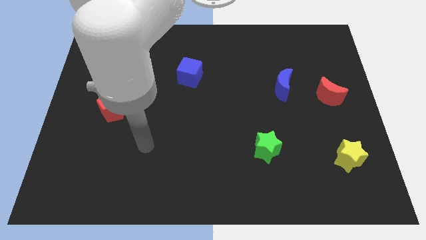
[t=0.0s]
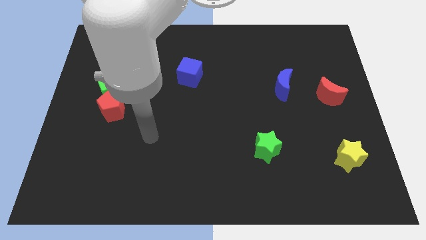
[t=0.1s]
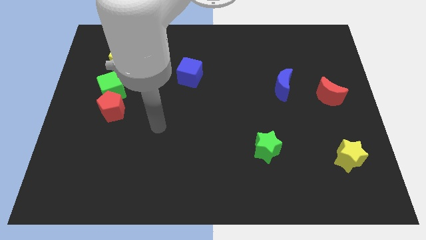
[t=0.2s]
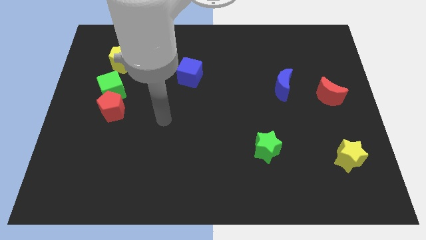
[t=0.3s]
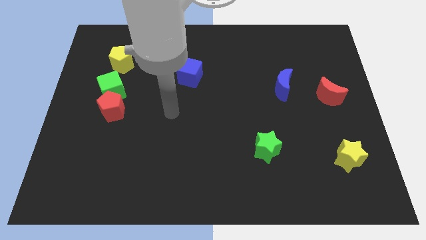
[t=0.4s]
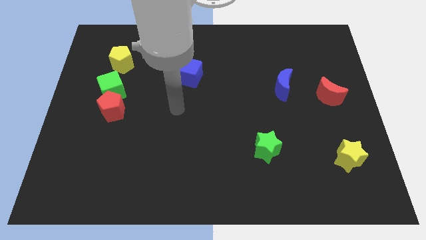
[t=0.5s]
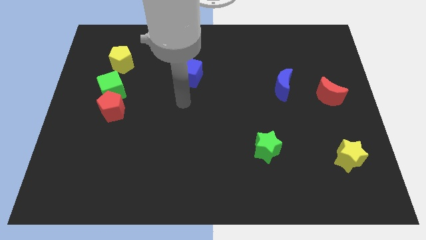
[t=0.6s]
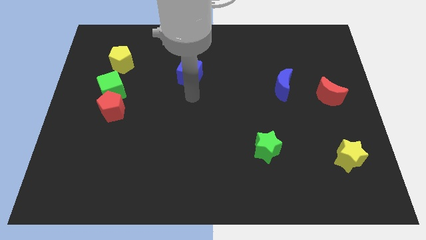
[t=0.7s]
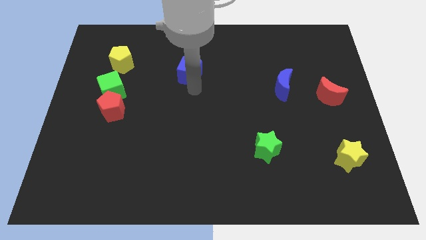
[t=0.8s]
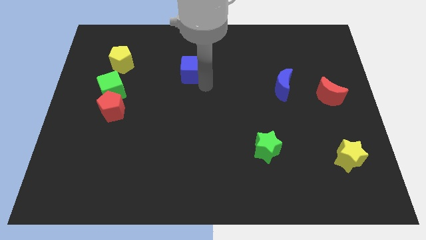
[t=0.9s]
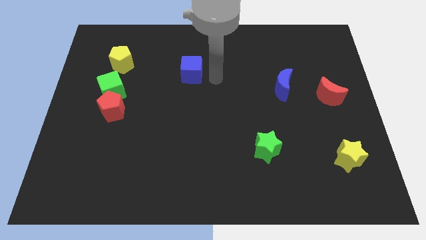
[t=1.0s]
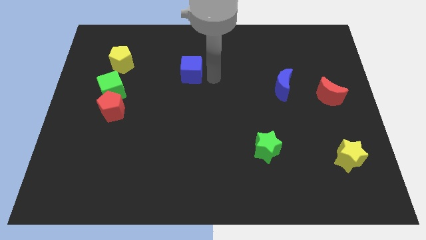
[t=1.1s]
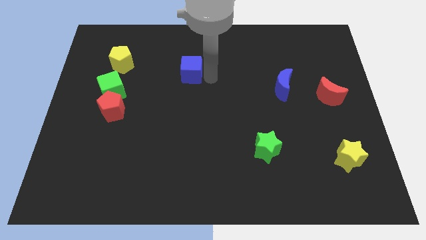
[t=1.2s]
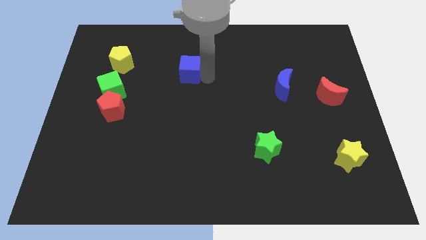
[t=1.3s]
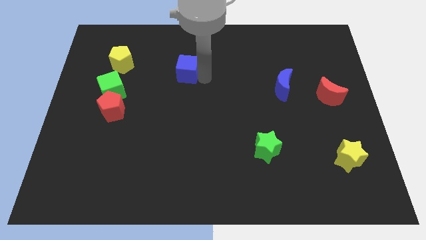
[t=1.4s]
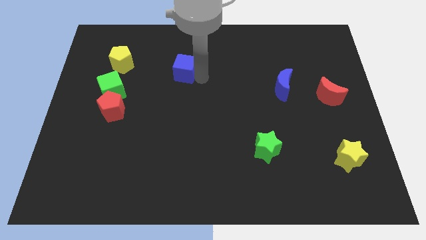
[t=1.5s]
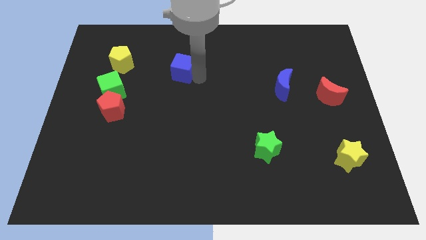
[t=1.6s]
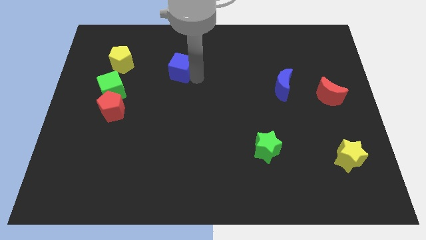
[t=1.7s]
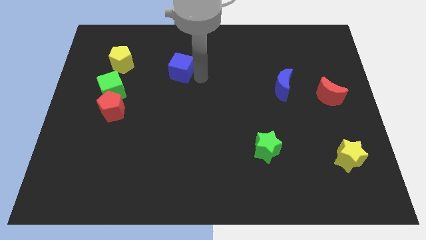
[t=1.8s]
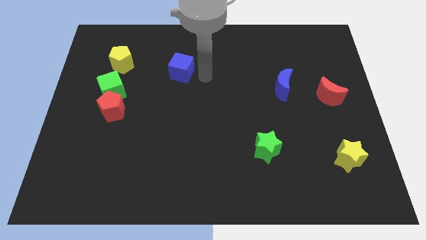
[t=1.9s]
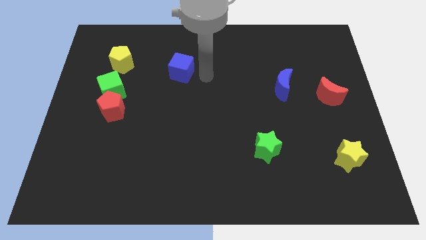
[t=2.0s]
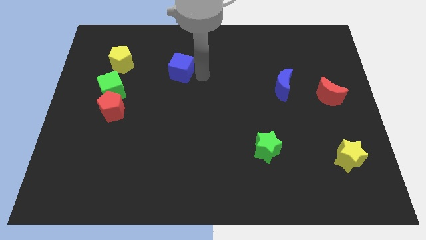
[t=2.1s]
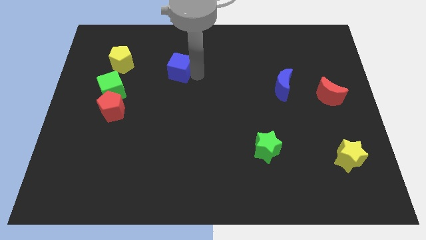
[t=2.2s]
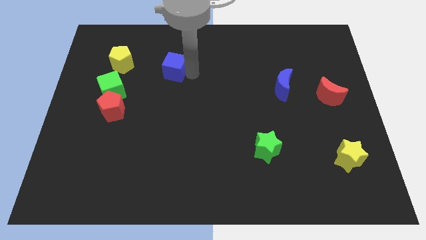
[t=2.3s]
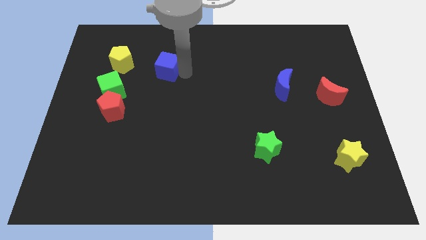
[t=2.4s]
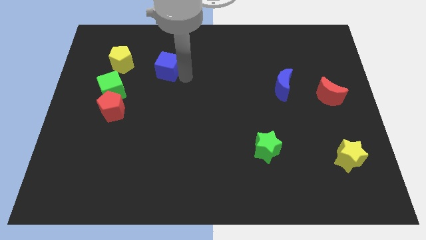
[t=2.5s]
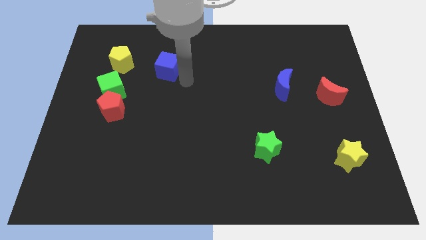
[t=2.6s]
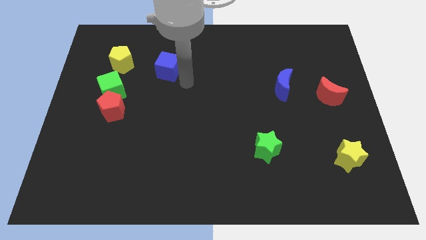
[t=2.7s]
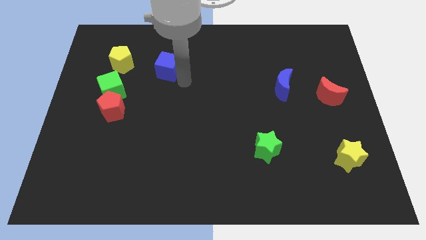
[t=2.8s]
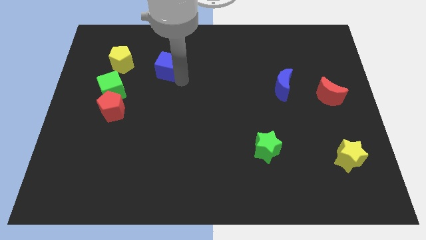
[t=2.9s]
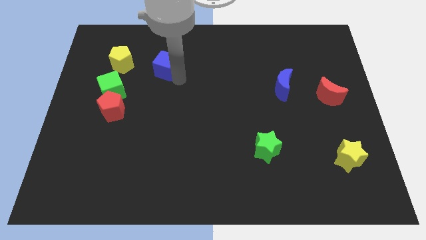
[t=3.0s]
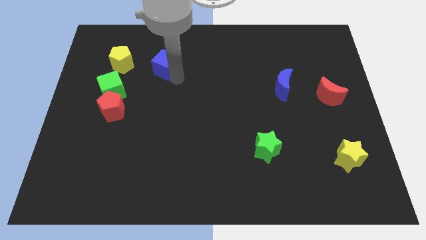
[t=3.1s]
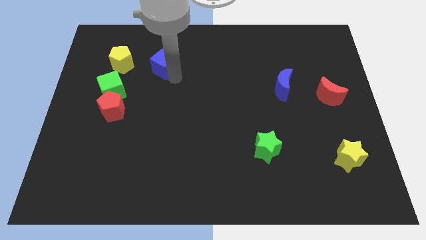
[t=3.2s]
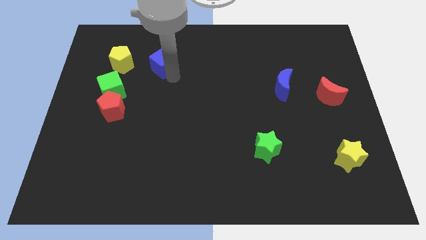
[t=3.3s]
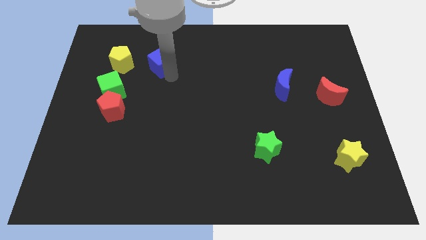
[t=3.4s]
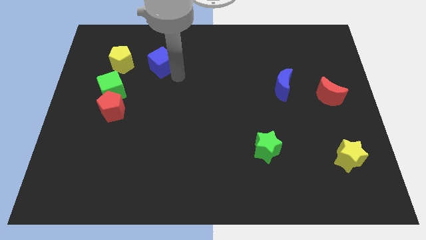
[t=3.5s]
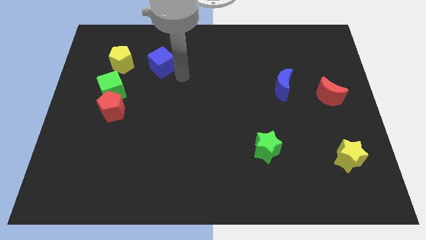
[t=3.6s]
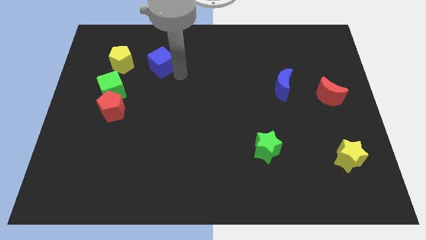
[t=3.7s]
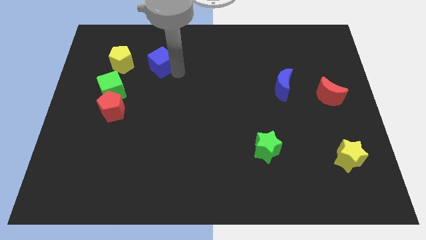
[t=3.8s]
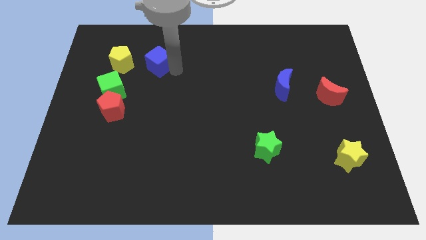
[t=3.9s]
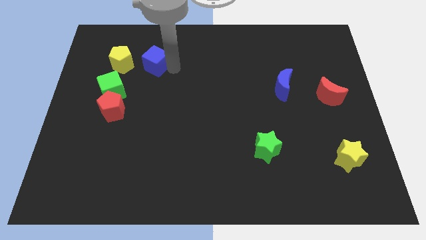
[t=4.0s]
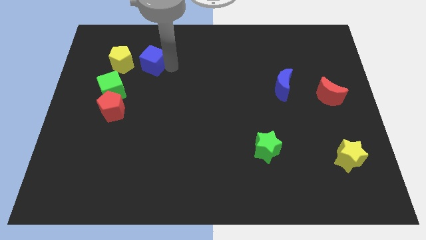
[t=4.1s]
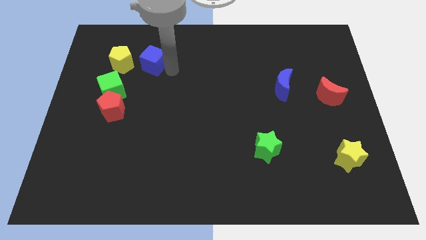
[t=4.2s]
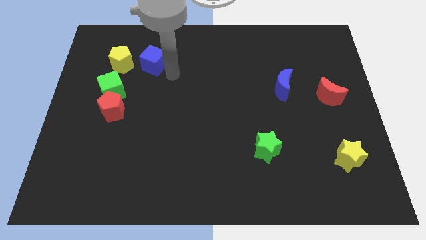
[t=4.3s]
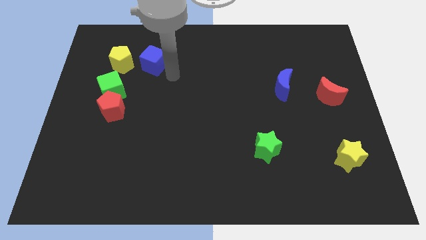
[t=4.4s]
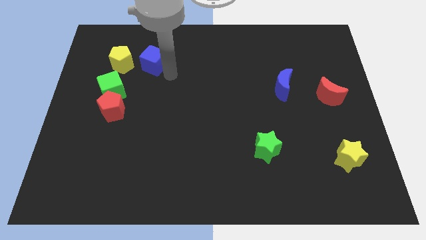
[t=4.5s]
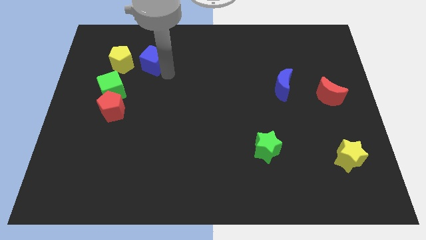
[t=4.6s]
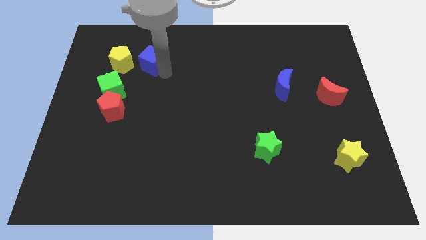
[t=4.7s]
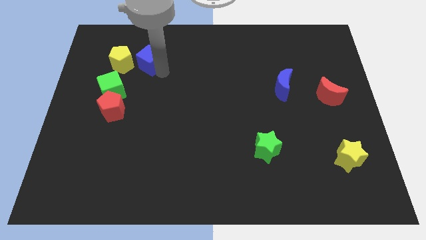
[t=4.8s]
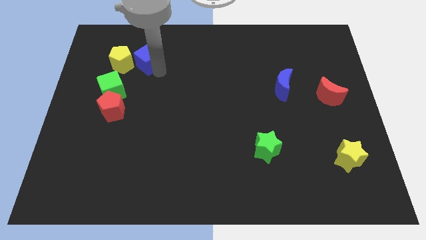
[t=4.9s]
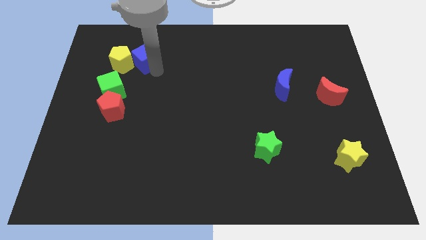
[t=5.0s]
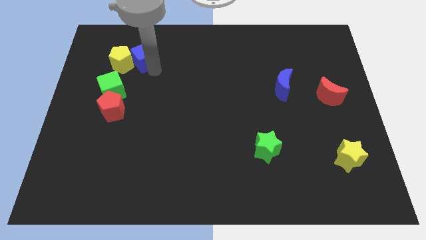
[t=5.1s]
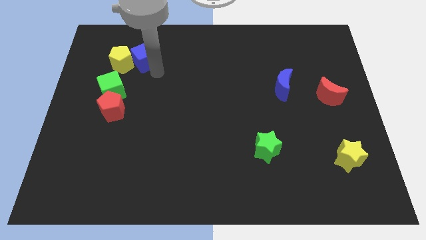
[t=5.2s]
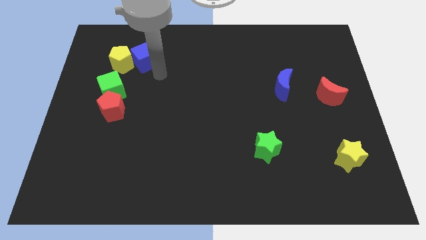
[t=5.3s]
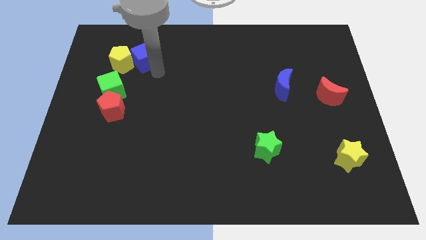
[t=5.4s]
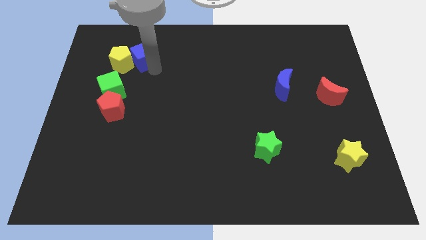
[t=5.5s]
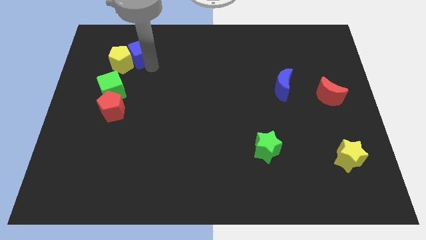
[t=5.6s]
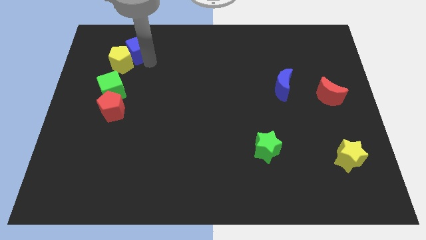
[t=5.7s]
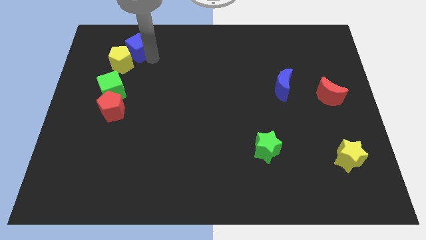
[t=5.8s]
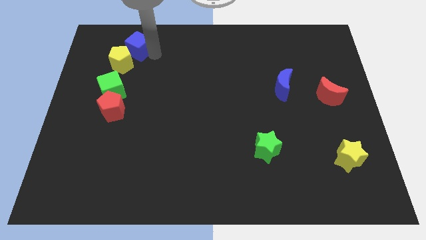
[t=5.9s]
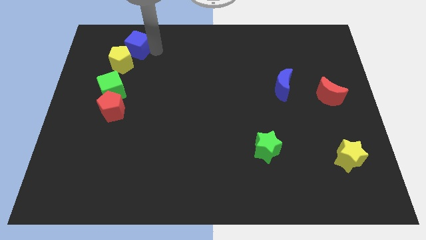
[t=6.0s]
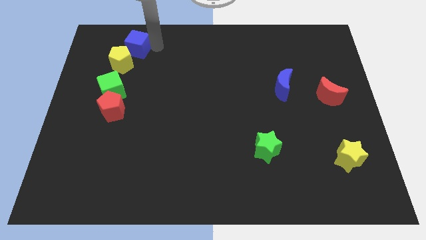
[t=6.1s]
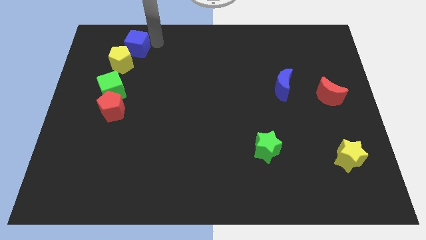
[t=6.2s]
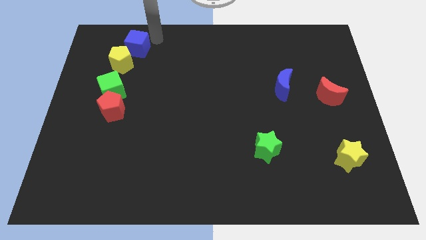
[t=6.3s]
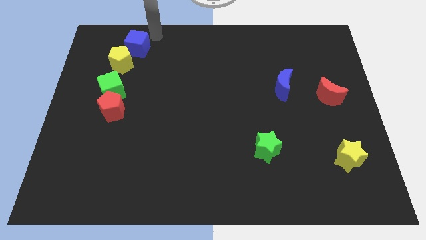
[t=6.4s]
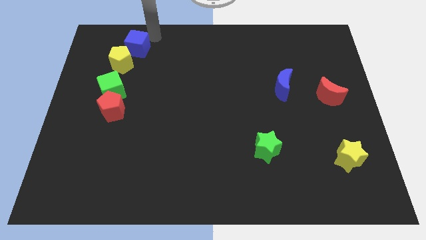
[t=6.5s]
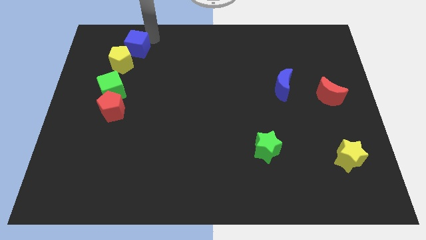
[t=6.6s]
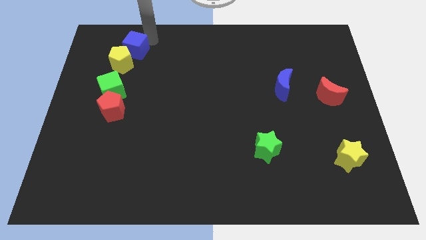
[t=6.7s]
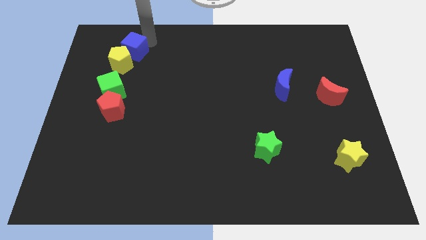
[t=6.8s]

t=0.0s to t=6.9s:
slide the blue cube to the top side of the green cube

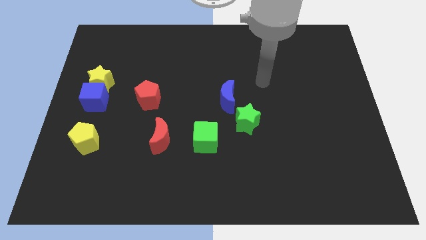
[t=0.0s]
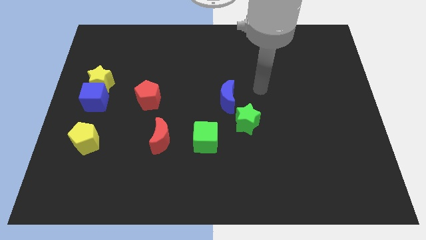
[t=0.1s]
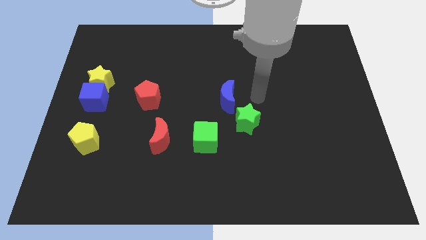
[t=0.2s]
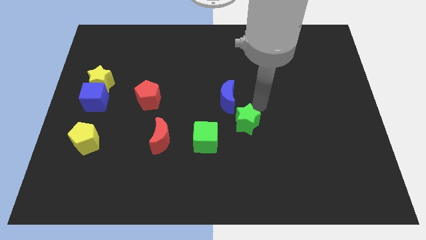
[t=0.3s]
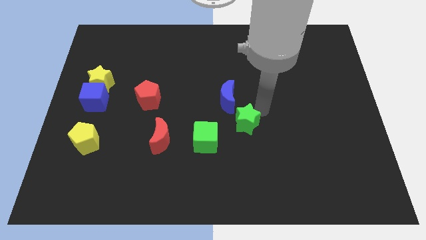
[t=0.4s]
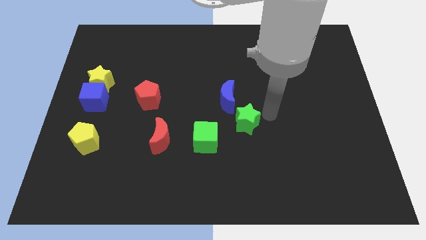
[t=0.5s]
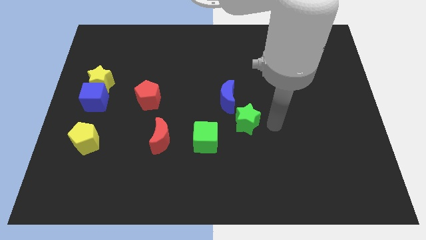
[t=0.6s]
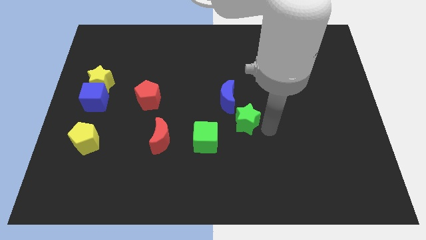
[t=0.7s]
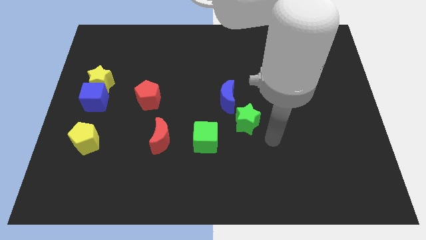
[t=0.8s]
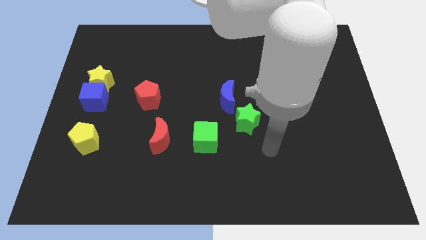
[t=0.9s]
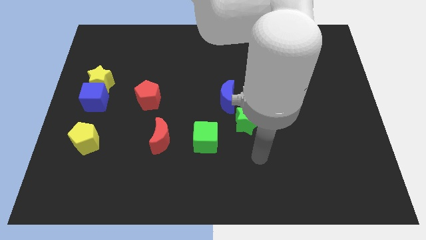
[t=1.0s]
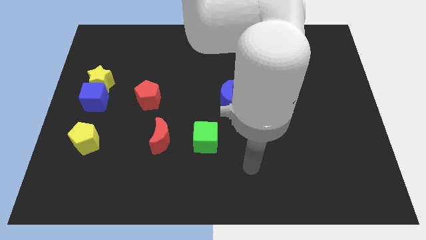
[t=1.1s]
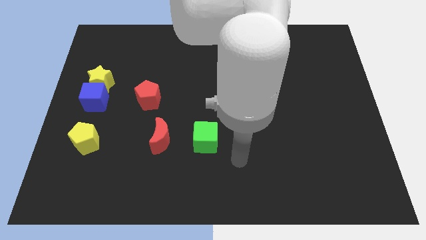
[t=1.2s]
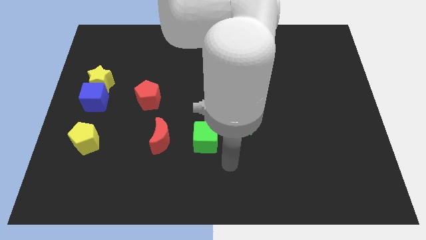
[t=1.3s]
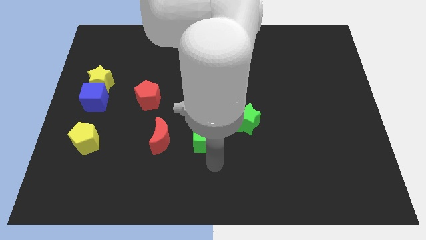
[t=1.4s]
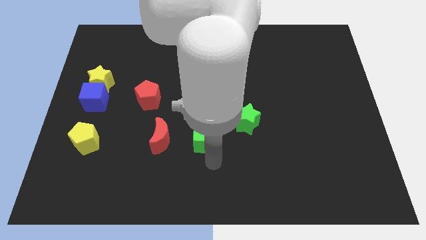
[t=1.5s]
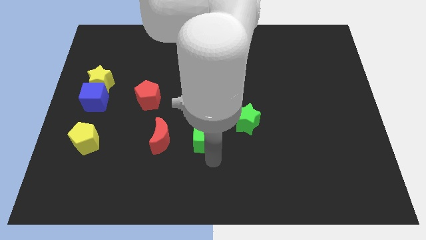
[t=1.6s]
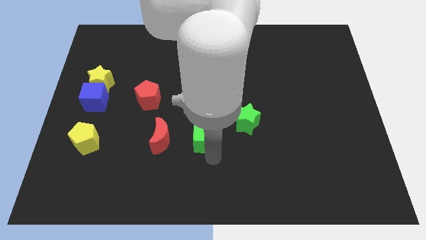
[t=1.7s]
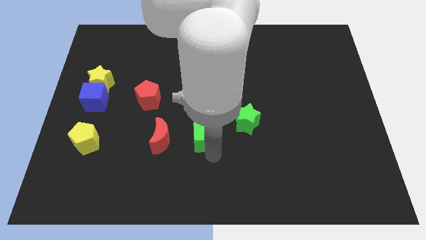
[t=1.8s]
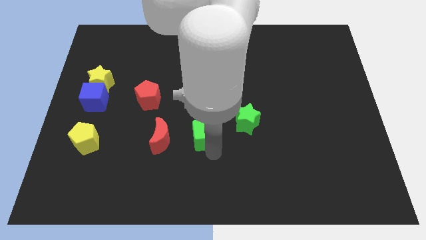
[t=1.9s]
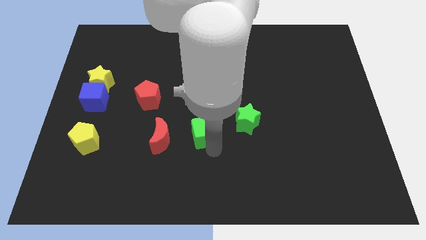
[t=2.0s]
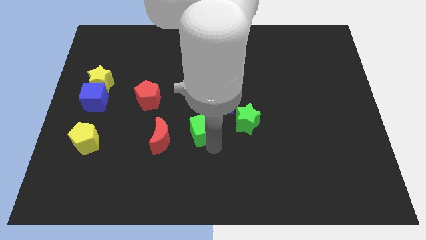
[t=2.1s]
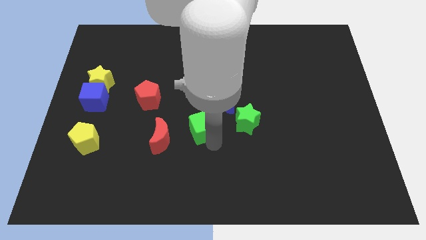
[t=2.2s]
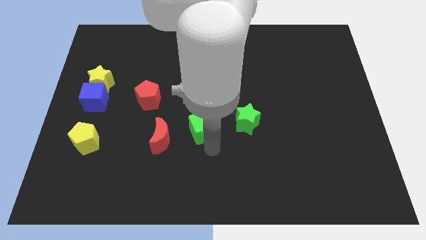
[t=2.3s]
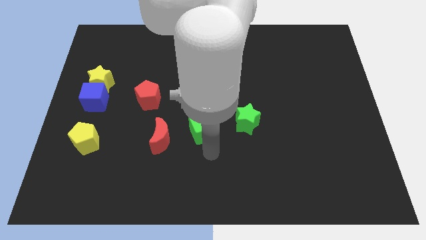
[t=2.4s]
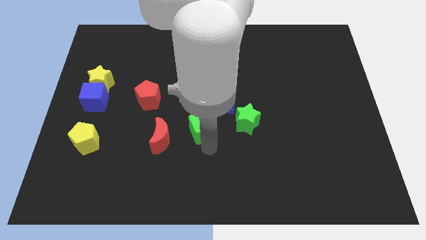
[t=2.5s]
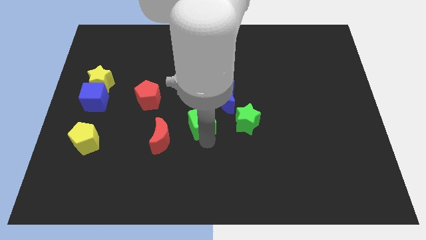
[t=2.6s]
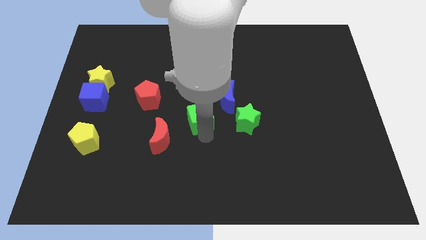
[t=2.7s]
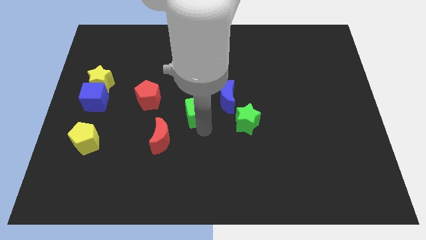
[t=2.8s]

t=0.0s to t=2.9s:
push the green cube just right of the red pentagon
